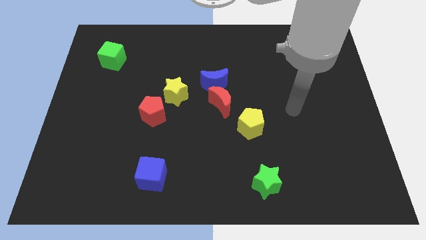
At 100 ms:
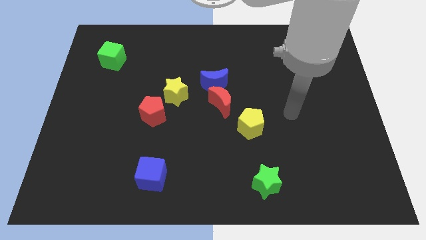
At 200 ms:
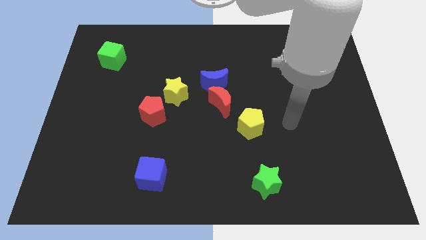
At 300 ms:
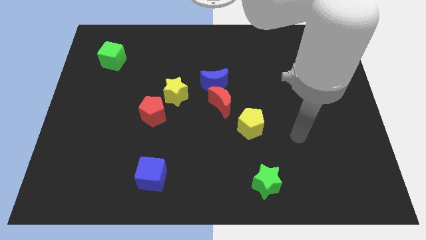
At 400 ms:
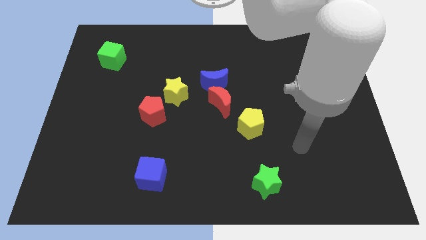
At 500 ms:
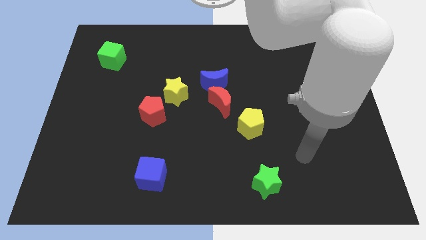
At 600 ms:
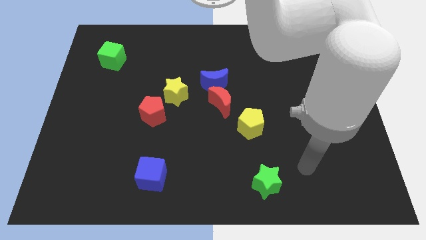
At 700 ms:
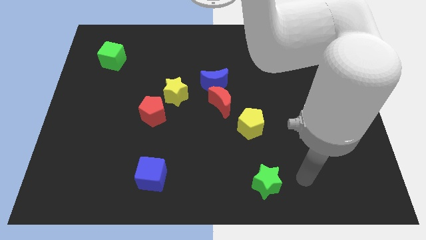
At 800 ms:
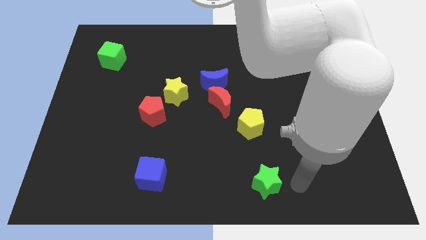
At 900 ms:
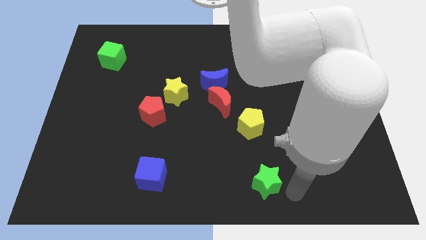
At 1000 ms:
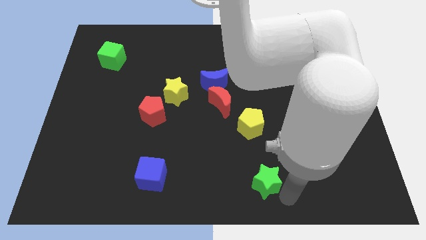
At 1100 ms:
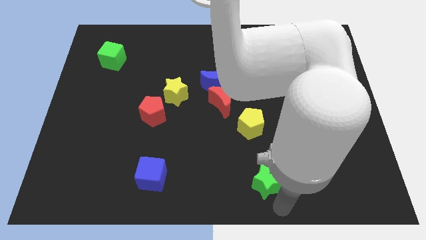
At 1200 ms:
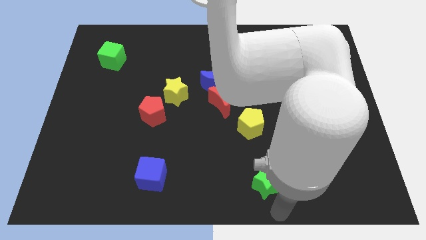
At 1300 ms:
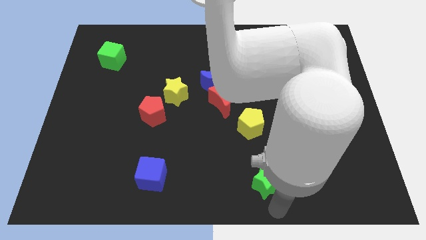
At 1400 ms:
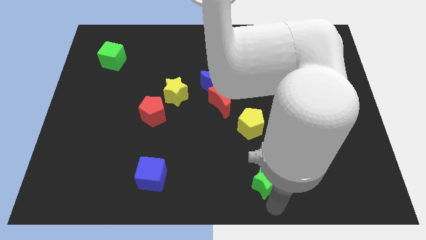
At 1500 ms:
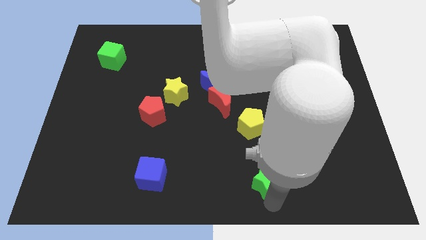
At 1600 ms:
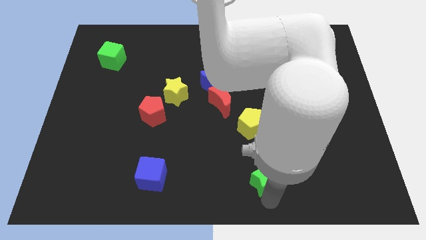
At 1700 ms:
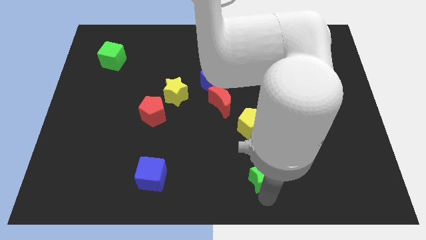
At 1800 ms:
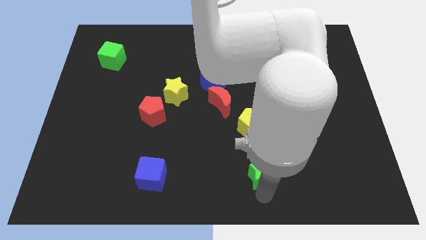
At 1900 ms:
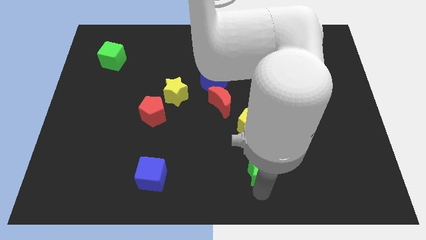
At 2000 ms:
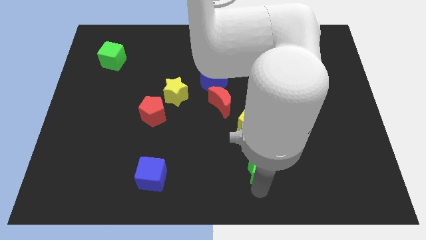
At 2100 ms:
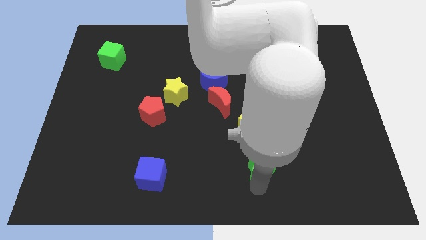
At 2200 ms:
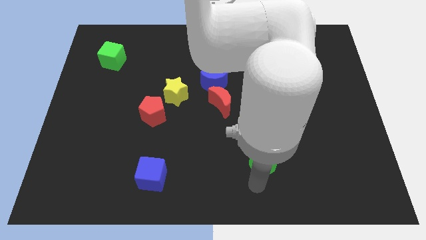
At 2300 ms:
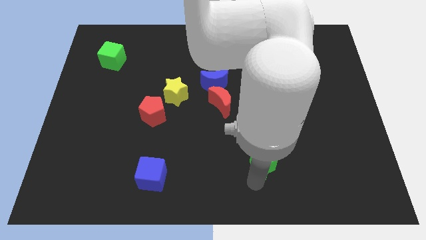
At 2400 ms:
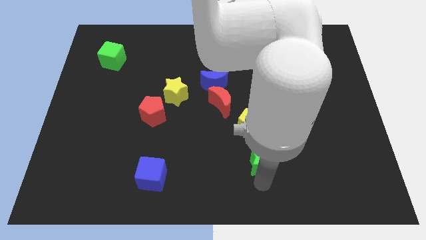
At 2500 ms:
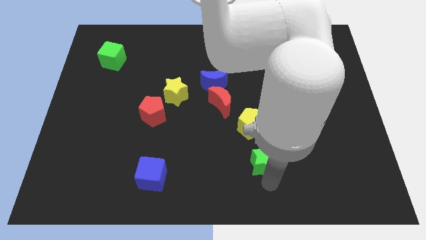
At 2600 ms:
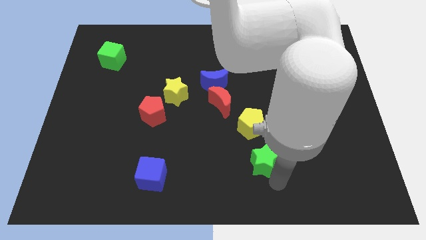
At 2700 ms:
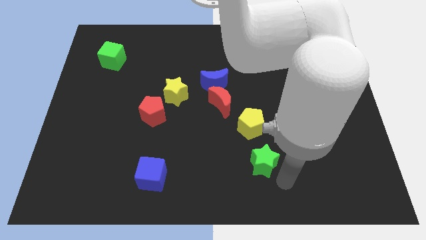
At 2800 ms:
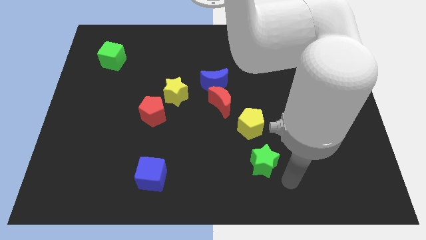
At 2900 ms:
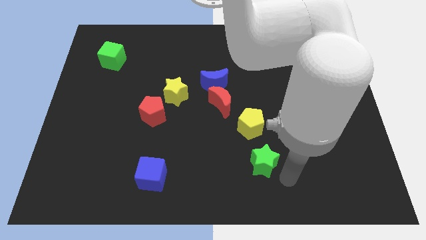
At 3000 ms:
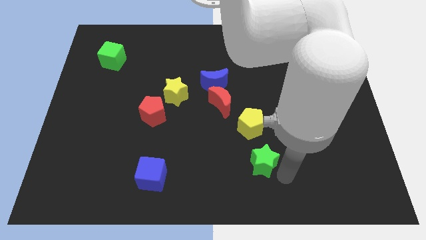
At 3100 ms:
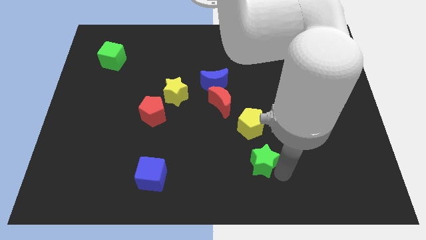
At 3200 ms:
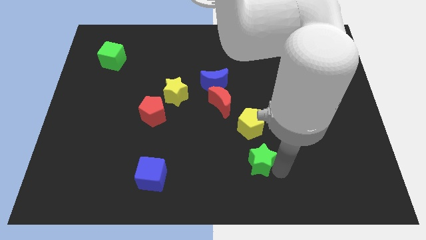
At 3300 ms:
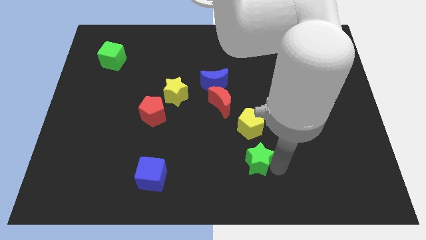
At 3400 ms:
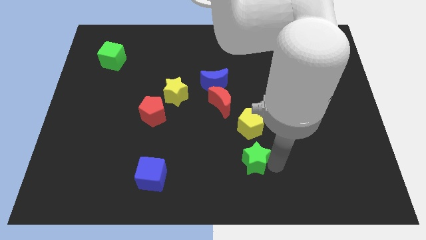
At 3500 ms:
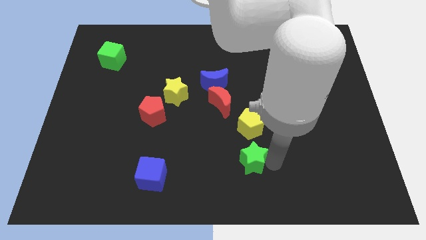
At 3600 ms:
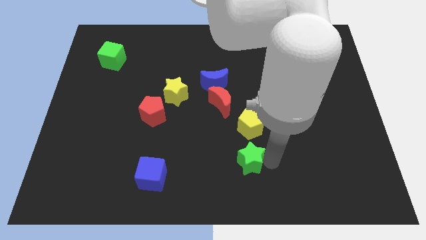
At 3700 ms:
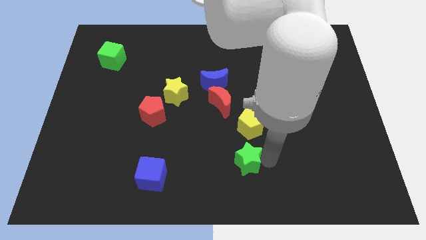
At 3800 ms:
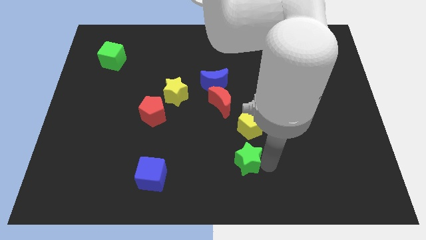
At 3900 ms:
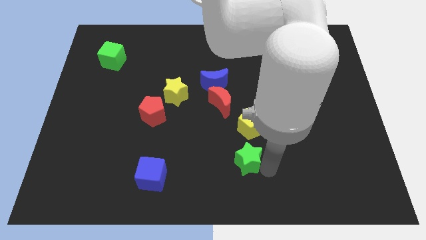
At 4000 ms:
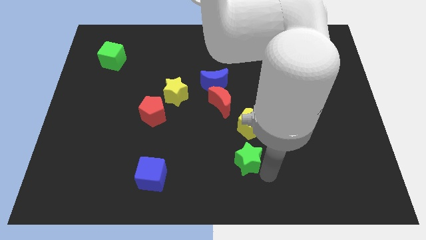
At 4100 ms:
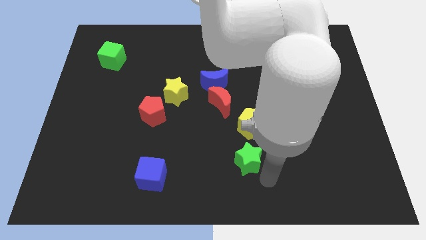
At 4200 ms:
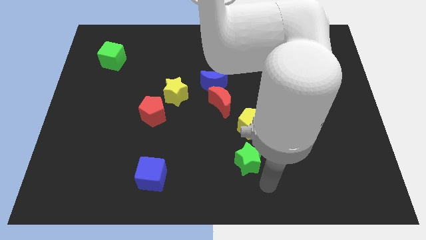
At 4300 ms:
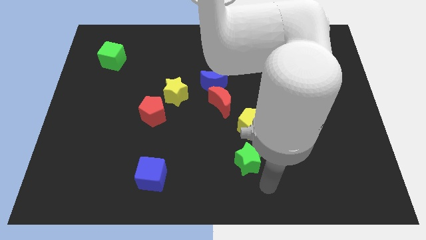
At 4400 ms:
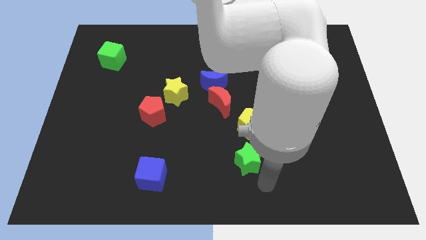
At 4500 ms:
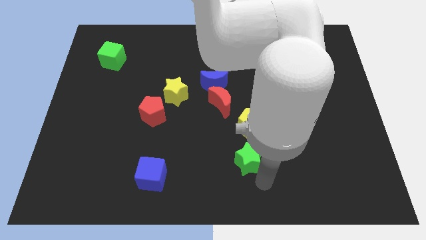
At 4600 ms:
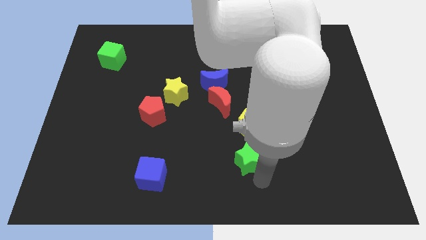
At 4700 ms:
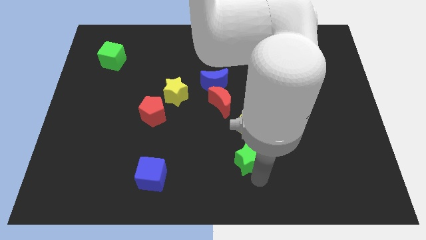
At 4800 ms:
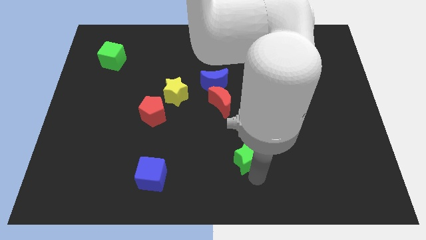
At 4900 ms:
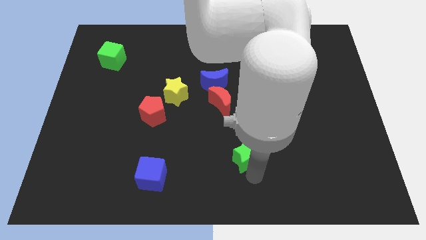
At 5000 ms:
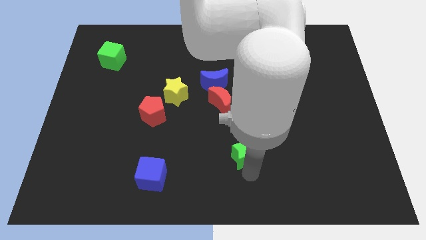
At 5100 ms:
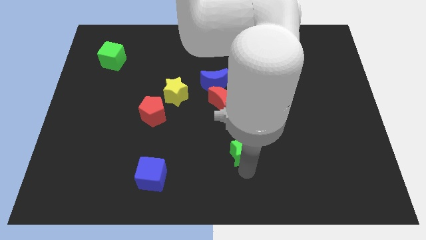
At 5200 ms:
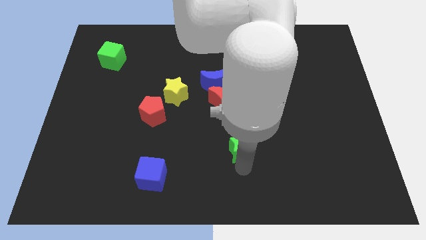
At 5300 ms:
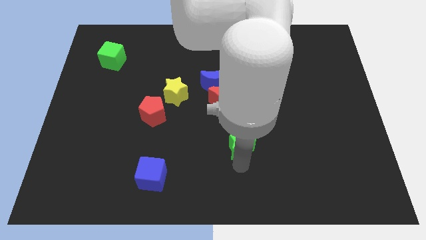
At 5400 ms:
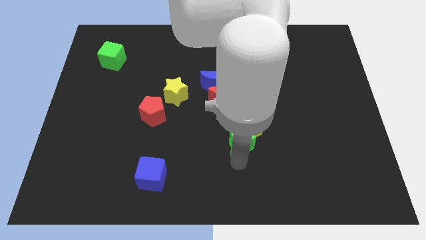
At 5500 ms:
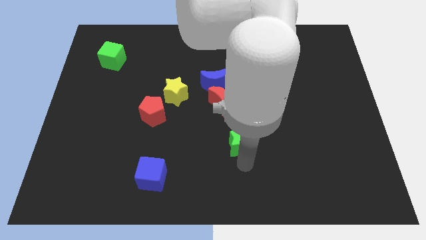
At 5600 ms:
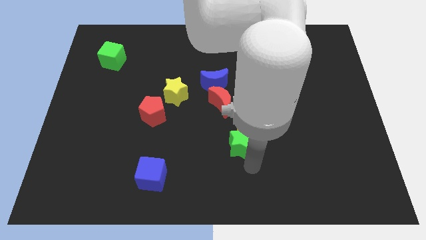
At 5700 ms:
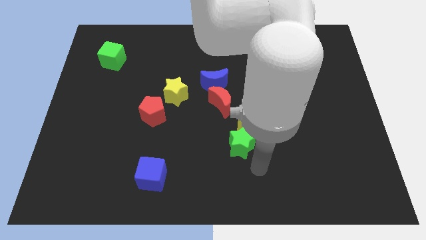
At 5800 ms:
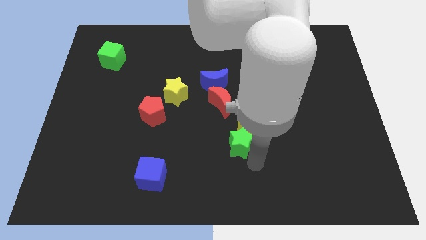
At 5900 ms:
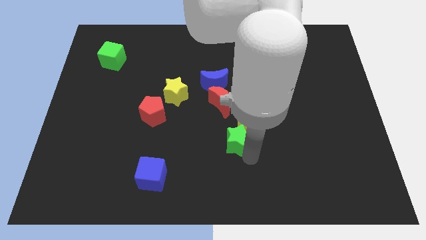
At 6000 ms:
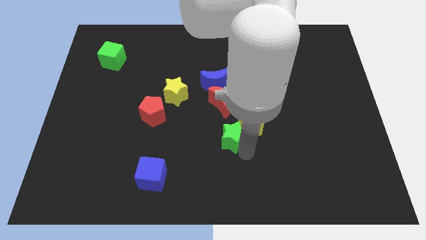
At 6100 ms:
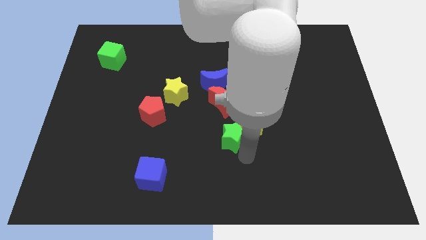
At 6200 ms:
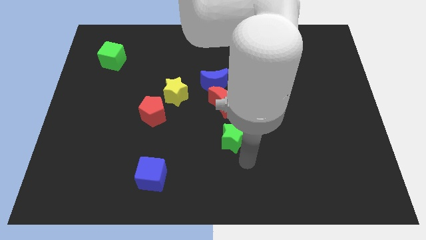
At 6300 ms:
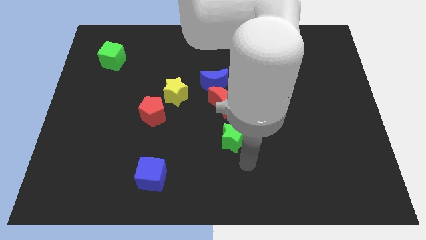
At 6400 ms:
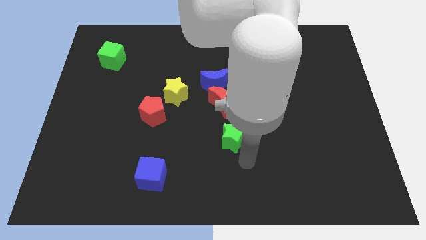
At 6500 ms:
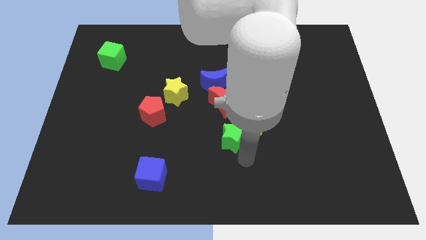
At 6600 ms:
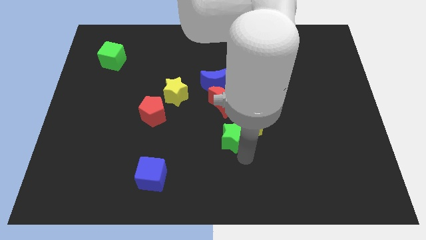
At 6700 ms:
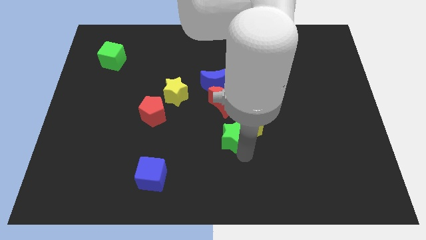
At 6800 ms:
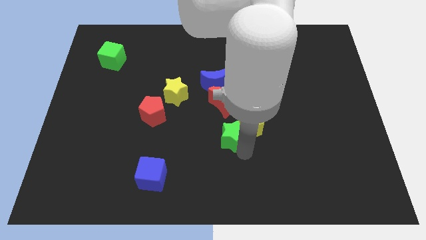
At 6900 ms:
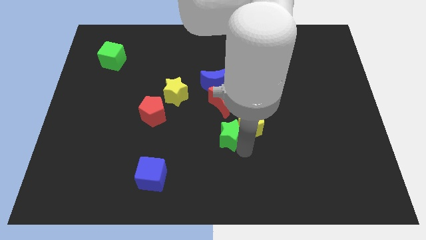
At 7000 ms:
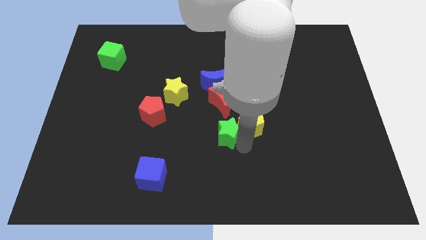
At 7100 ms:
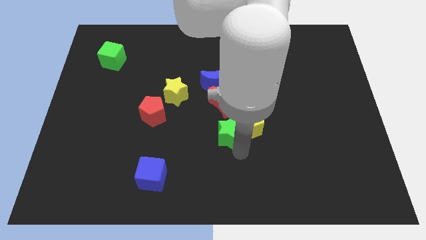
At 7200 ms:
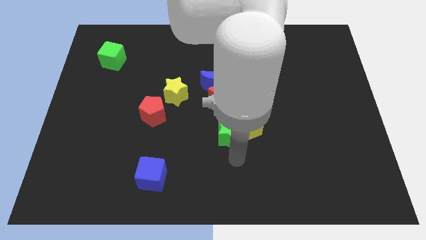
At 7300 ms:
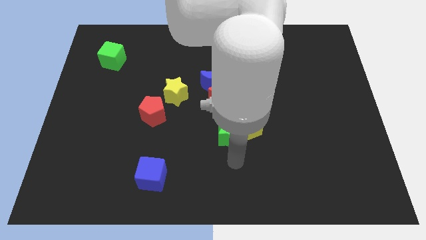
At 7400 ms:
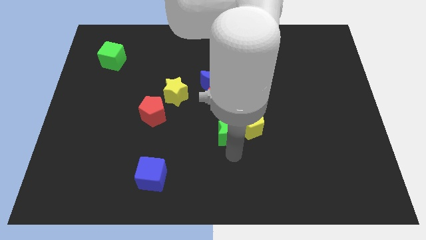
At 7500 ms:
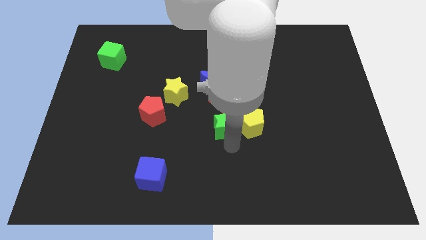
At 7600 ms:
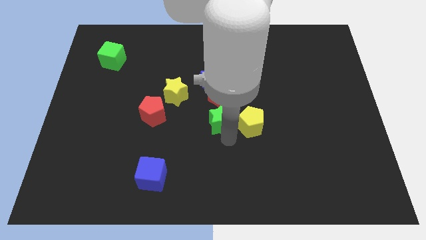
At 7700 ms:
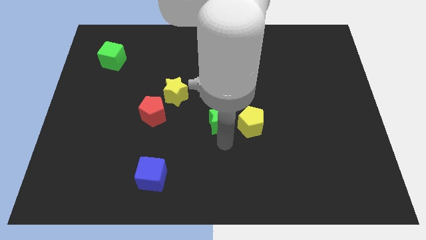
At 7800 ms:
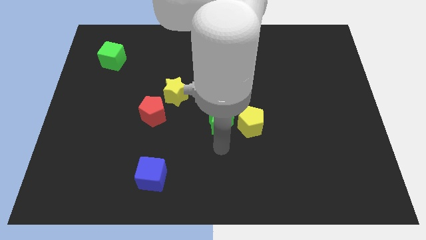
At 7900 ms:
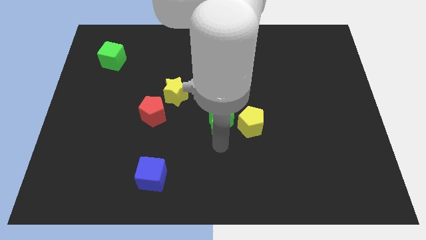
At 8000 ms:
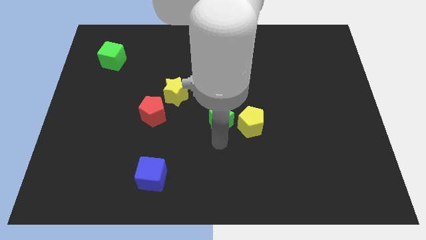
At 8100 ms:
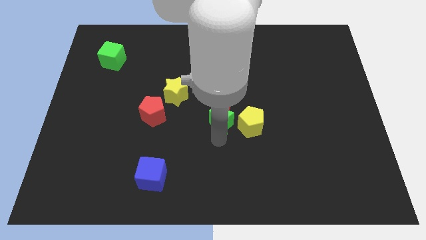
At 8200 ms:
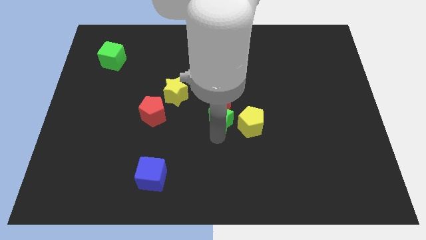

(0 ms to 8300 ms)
push the green star next to the red moon
